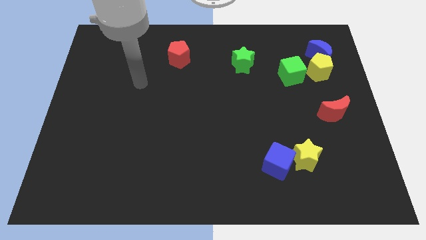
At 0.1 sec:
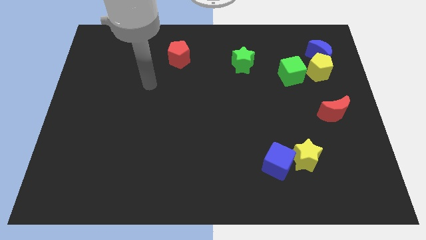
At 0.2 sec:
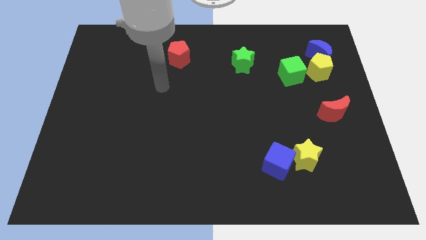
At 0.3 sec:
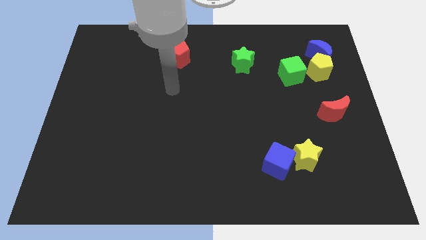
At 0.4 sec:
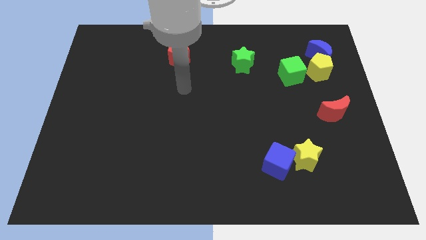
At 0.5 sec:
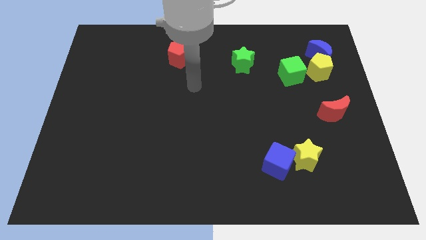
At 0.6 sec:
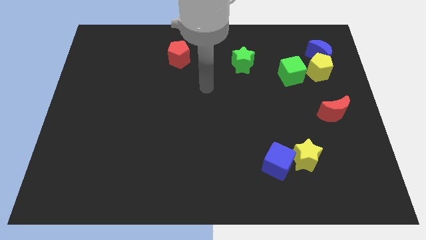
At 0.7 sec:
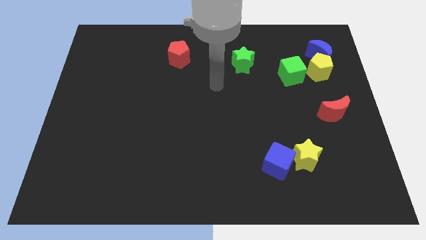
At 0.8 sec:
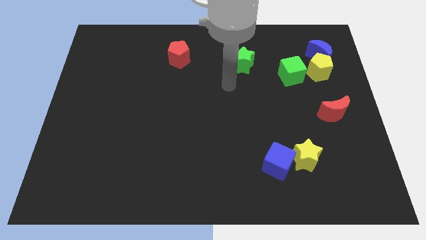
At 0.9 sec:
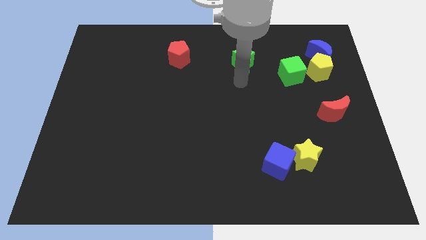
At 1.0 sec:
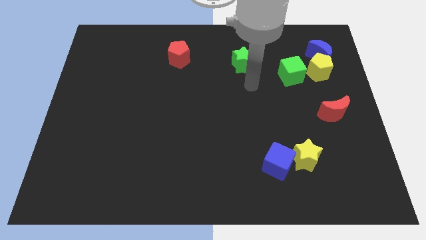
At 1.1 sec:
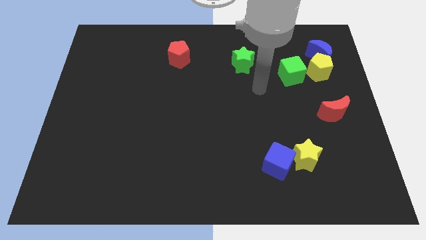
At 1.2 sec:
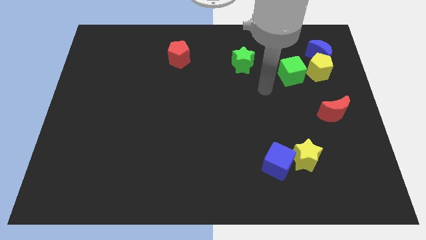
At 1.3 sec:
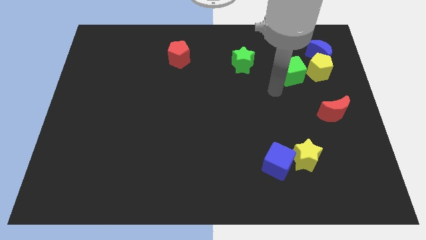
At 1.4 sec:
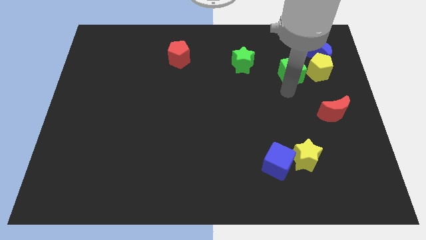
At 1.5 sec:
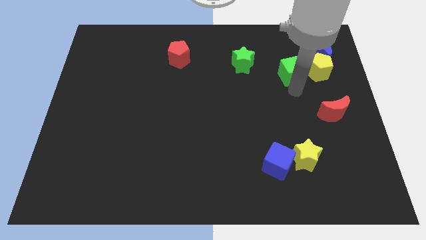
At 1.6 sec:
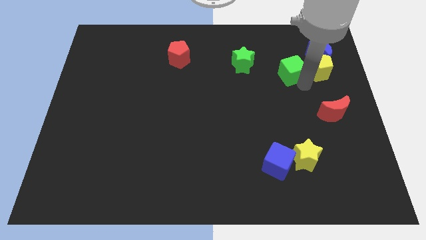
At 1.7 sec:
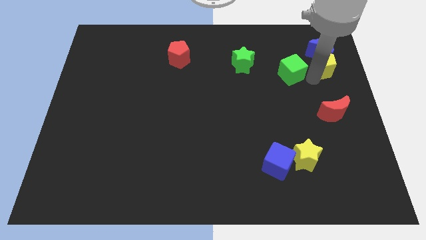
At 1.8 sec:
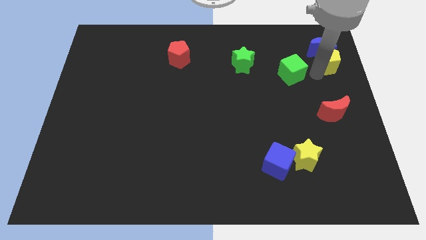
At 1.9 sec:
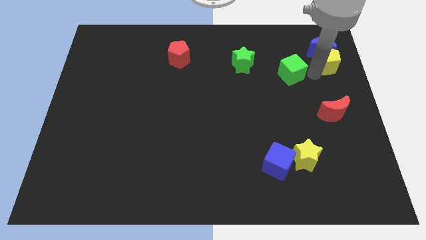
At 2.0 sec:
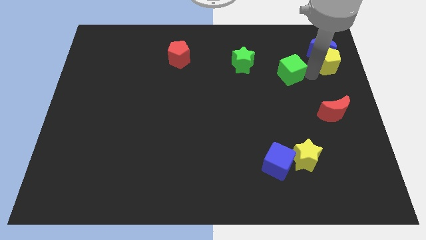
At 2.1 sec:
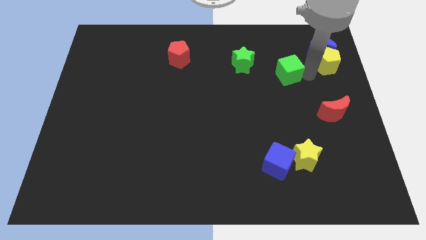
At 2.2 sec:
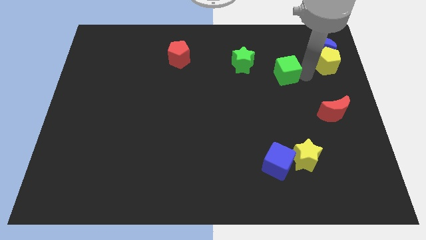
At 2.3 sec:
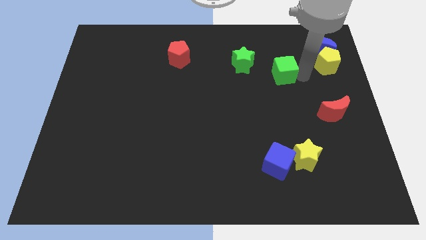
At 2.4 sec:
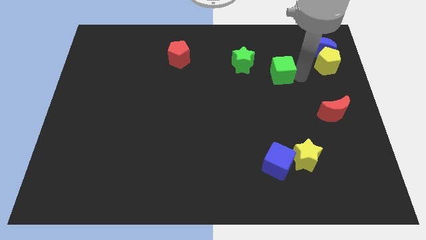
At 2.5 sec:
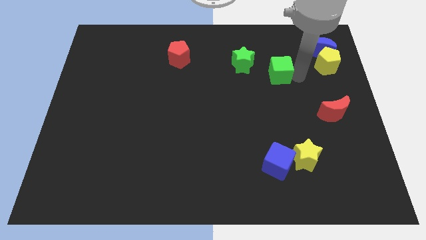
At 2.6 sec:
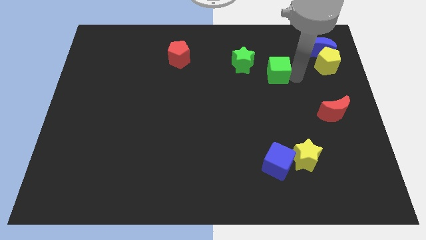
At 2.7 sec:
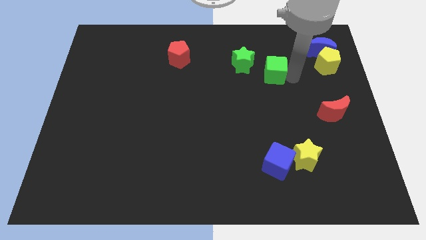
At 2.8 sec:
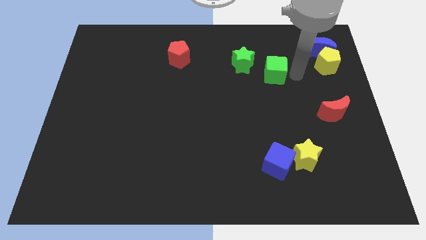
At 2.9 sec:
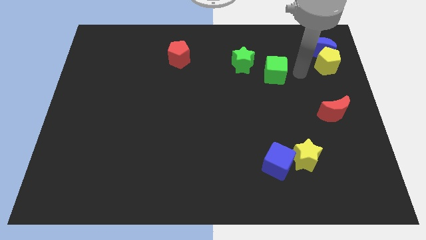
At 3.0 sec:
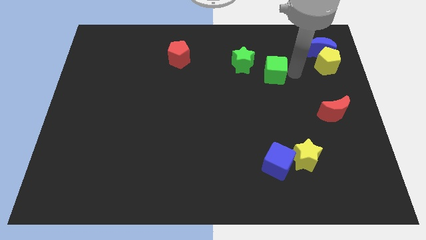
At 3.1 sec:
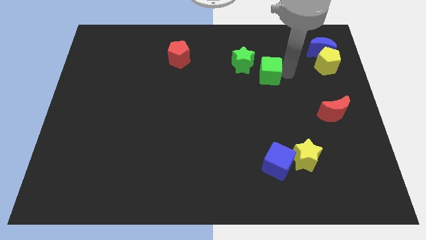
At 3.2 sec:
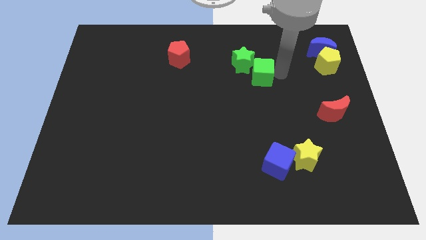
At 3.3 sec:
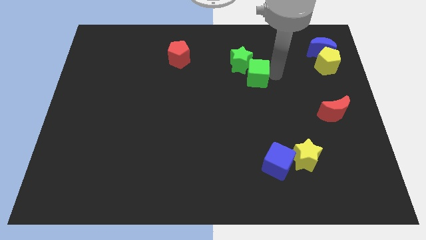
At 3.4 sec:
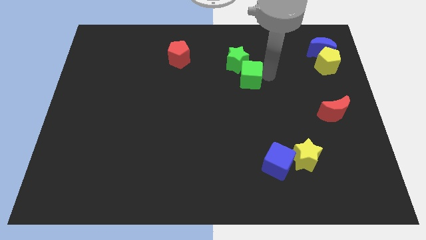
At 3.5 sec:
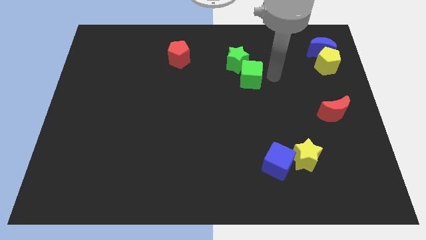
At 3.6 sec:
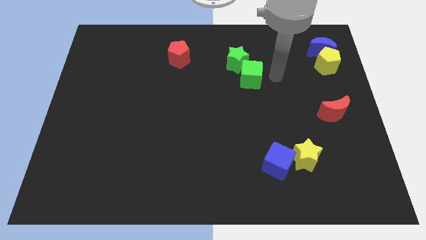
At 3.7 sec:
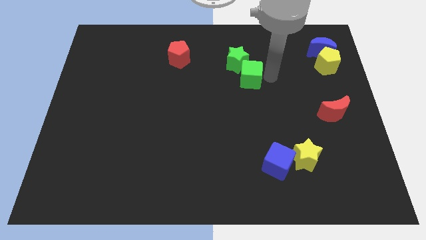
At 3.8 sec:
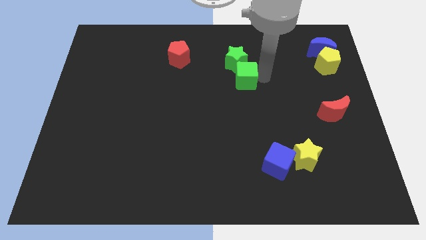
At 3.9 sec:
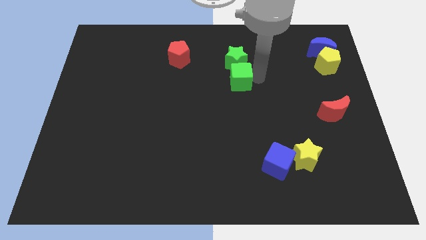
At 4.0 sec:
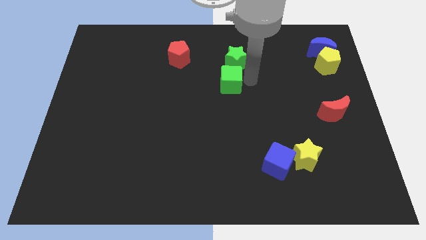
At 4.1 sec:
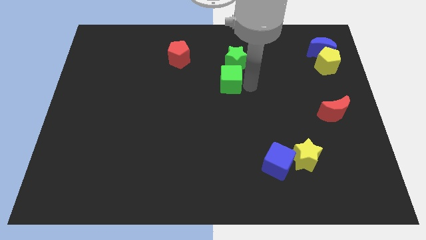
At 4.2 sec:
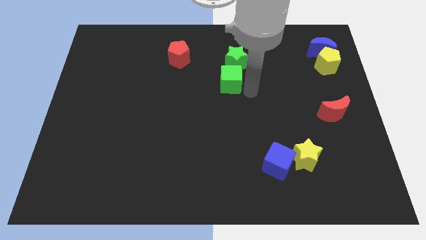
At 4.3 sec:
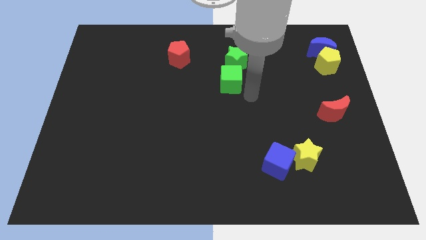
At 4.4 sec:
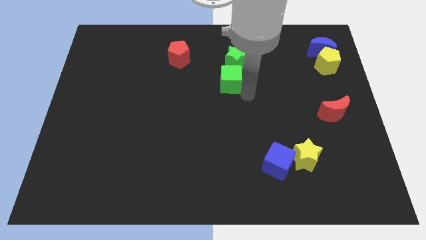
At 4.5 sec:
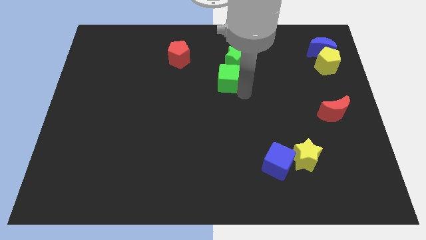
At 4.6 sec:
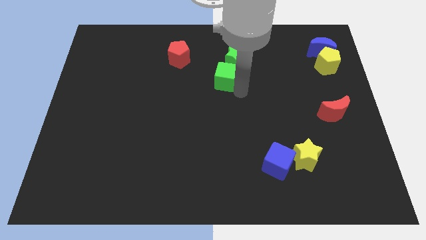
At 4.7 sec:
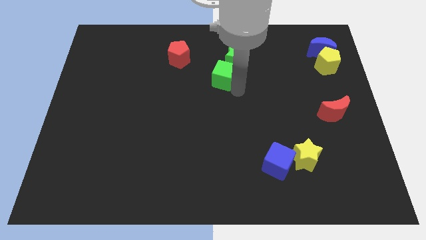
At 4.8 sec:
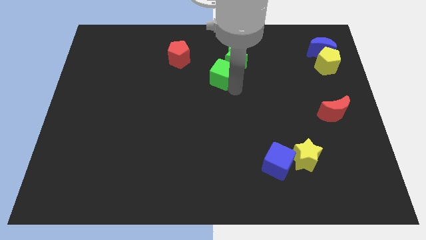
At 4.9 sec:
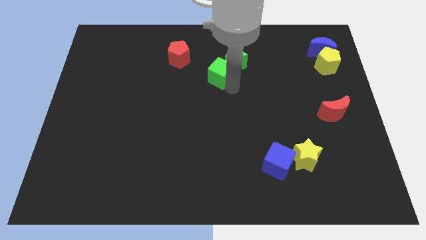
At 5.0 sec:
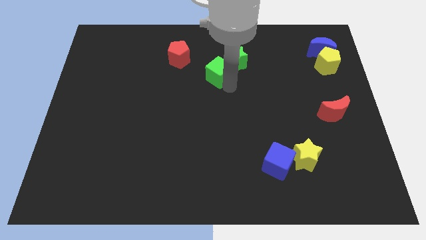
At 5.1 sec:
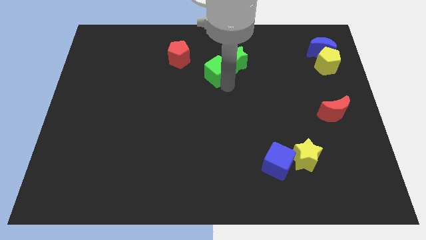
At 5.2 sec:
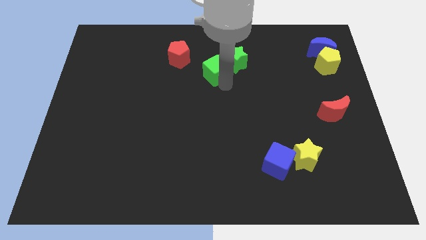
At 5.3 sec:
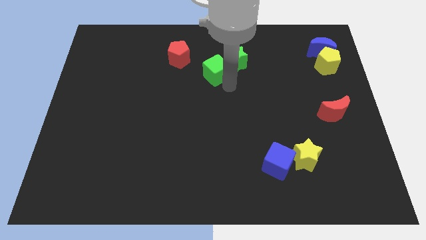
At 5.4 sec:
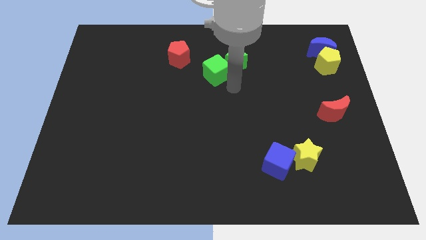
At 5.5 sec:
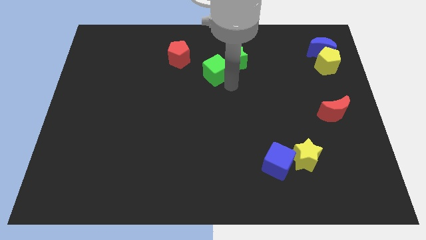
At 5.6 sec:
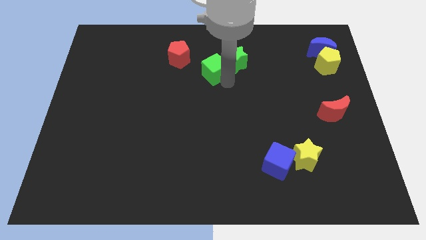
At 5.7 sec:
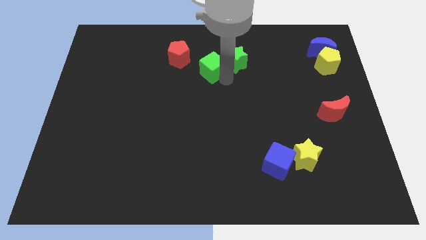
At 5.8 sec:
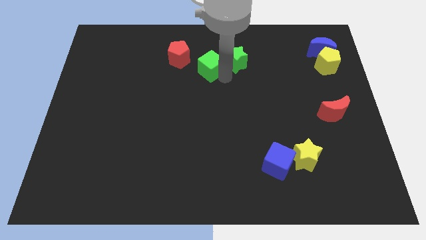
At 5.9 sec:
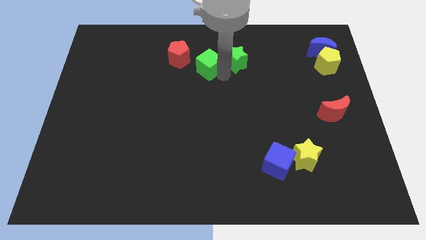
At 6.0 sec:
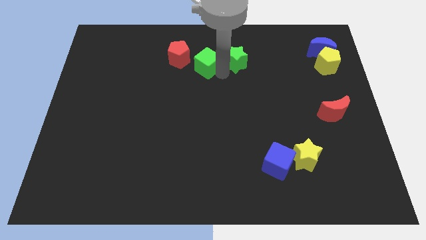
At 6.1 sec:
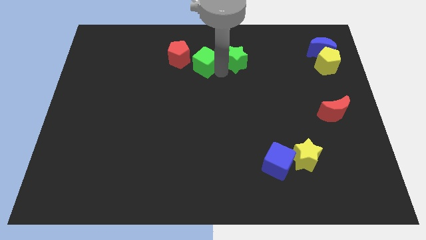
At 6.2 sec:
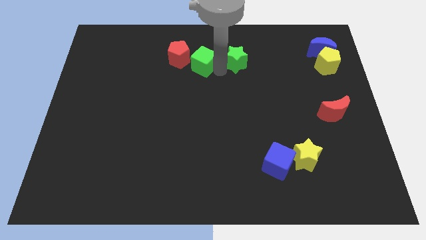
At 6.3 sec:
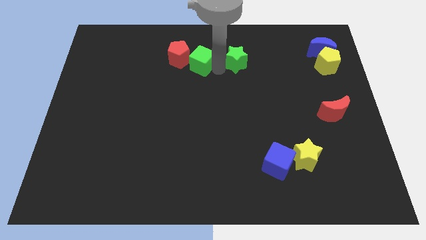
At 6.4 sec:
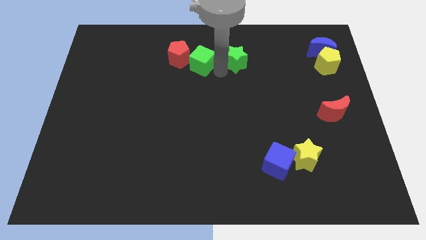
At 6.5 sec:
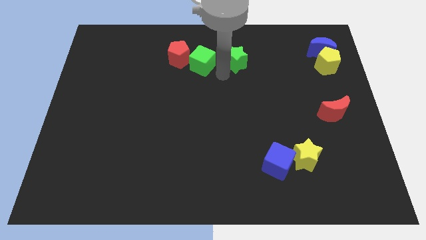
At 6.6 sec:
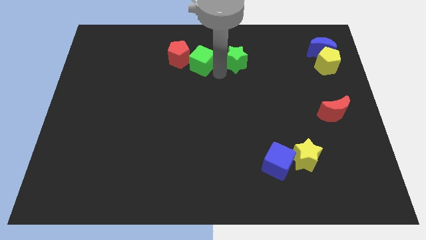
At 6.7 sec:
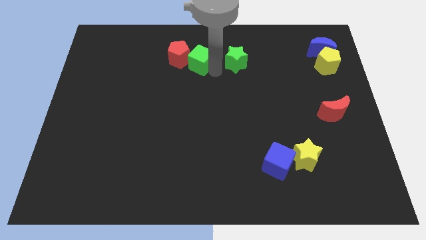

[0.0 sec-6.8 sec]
slide the green cube close to the red pentagon
